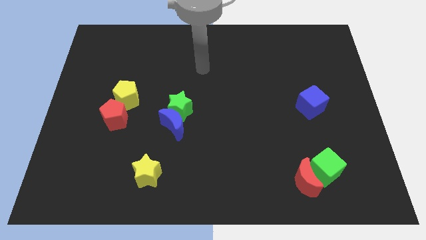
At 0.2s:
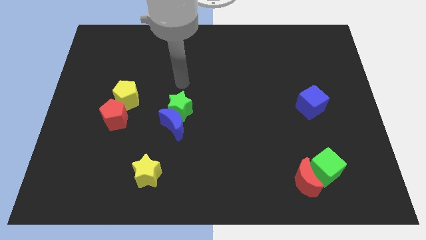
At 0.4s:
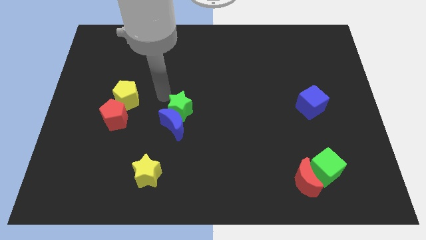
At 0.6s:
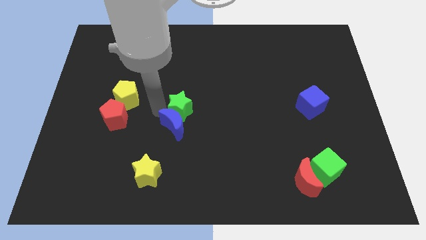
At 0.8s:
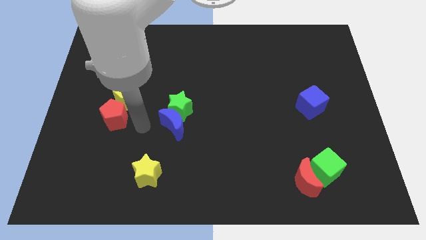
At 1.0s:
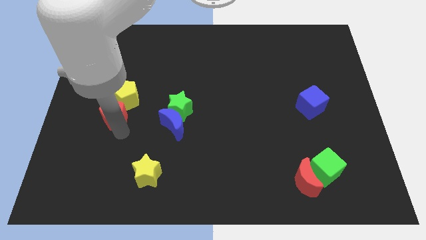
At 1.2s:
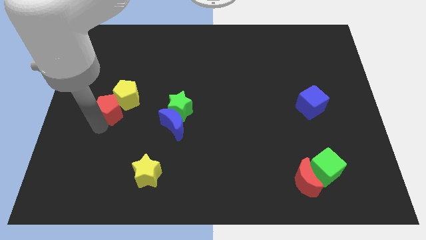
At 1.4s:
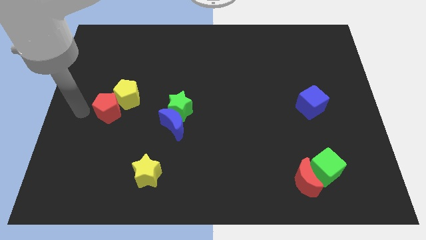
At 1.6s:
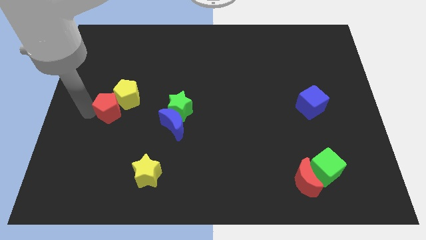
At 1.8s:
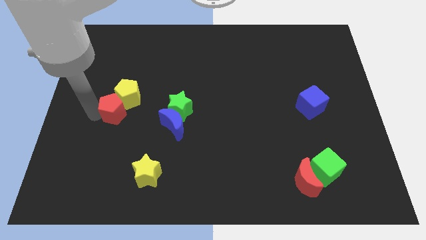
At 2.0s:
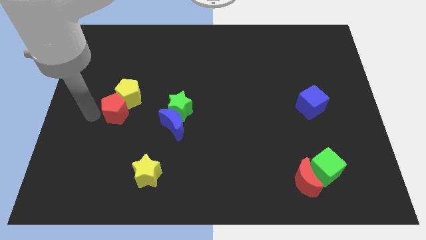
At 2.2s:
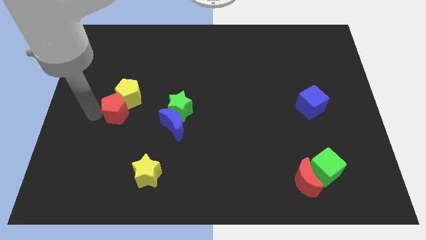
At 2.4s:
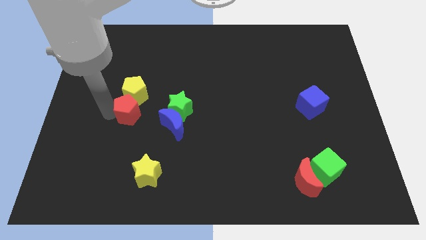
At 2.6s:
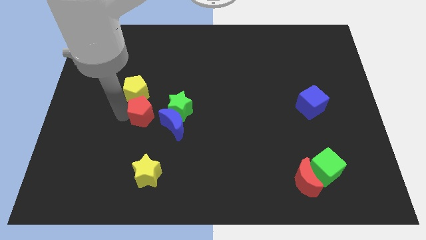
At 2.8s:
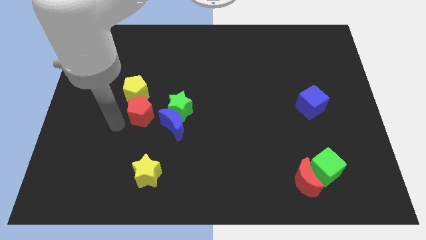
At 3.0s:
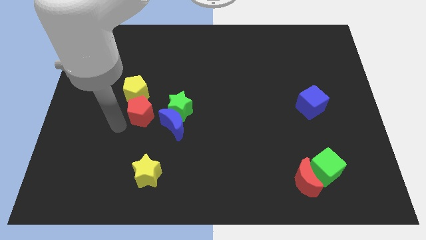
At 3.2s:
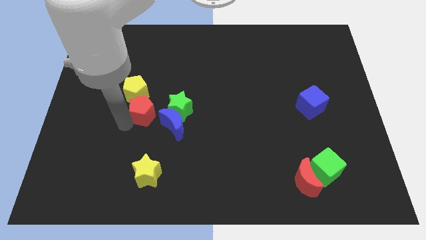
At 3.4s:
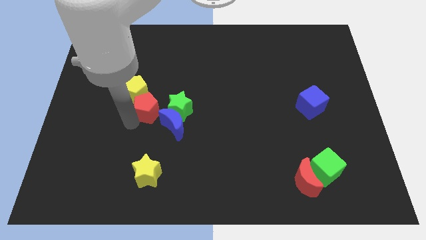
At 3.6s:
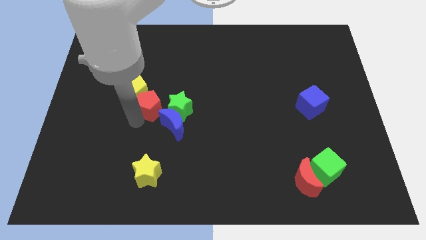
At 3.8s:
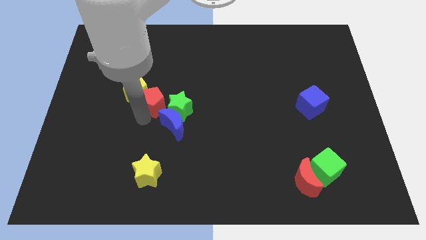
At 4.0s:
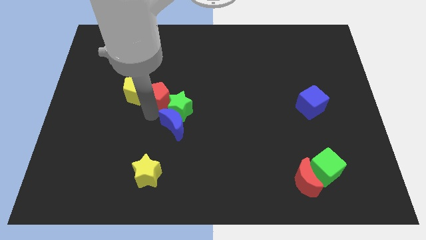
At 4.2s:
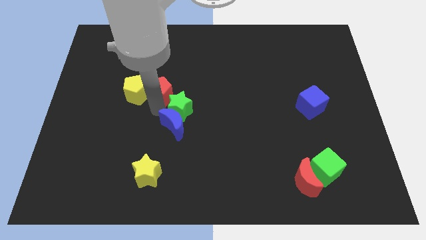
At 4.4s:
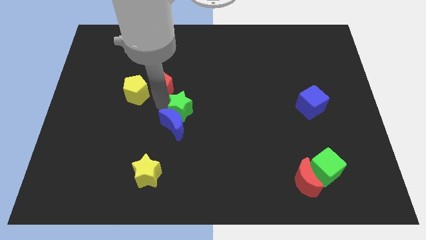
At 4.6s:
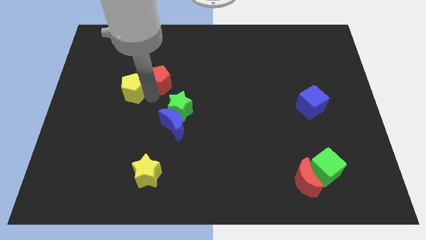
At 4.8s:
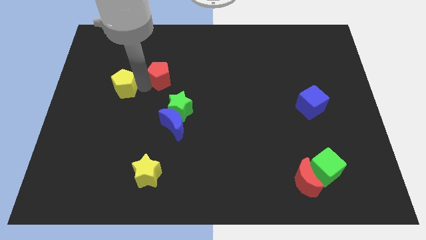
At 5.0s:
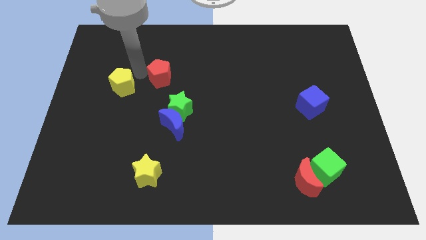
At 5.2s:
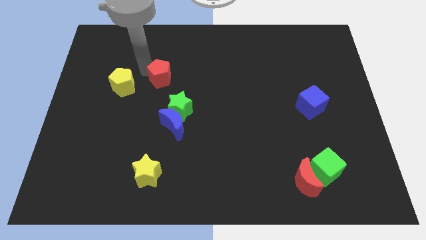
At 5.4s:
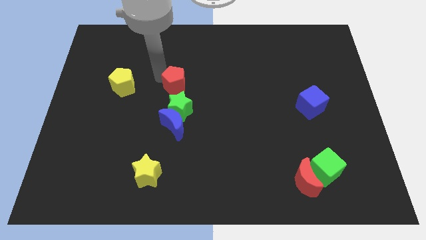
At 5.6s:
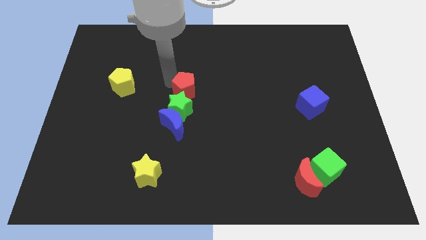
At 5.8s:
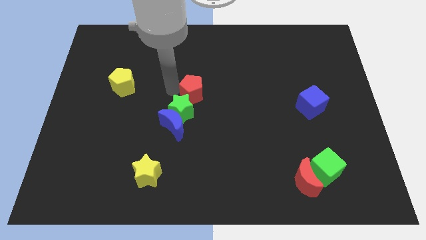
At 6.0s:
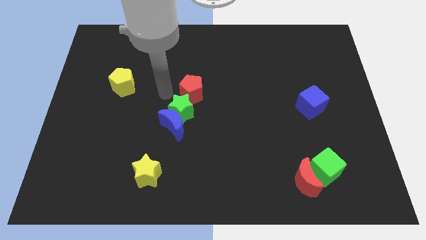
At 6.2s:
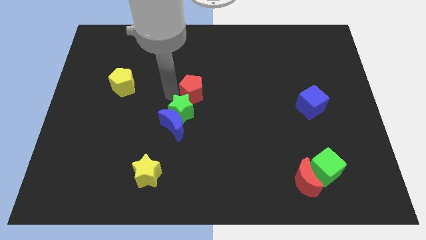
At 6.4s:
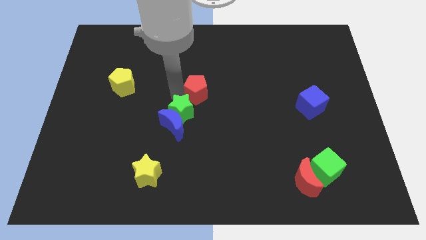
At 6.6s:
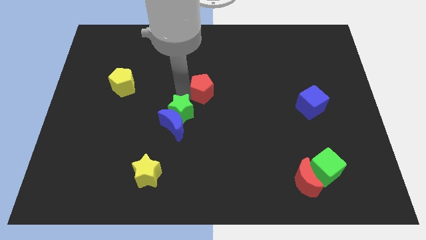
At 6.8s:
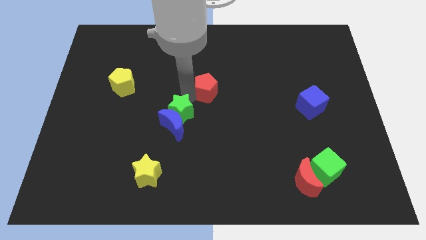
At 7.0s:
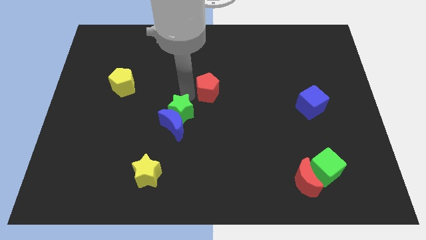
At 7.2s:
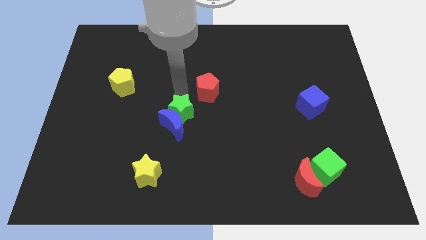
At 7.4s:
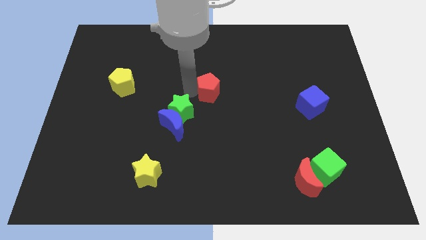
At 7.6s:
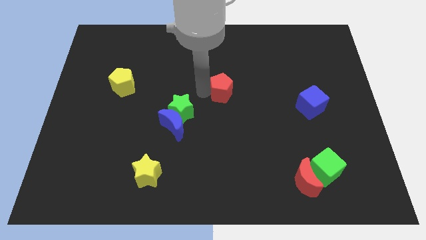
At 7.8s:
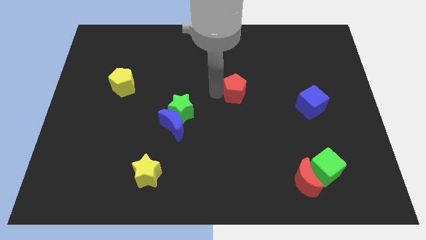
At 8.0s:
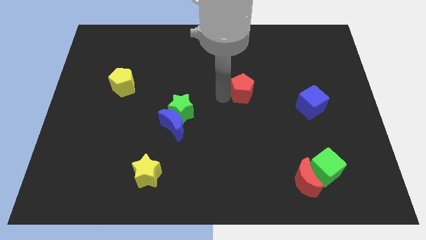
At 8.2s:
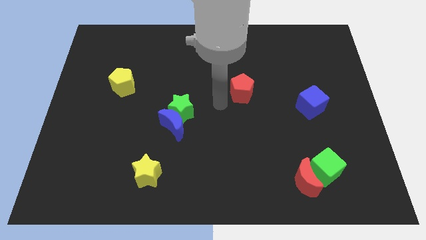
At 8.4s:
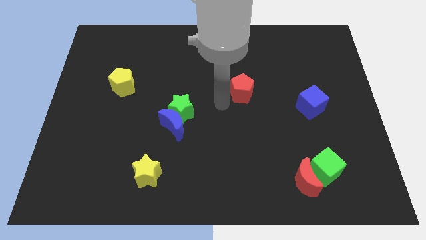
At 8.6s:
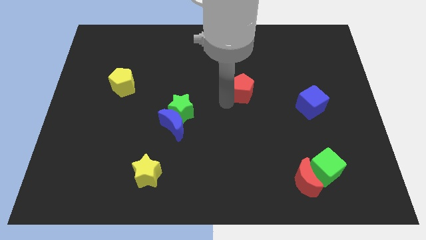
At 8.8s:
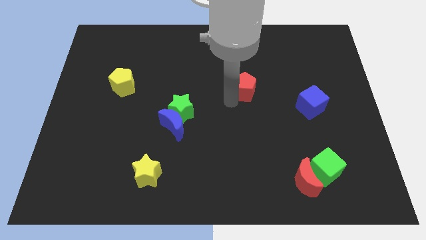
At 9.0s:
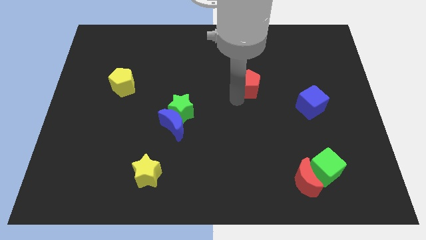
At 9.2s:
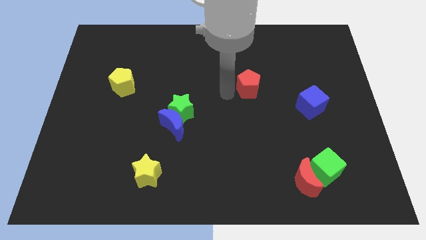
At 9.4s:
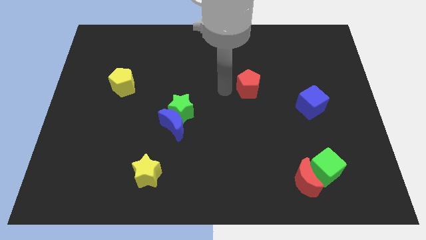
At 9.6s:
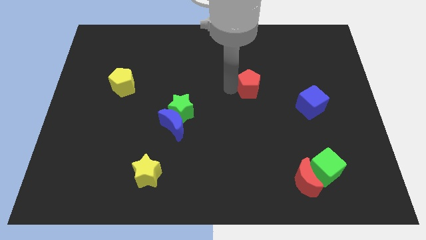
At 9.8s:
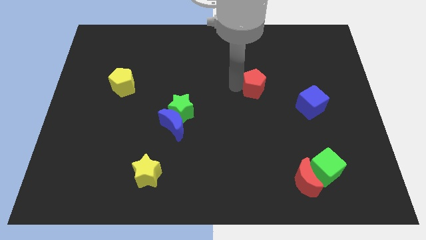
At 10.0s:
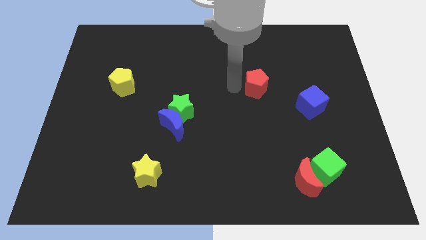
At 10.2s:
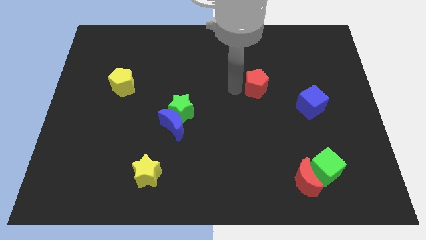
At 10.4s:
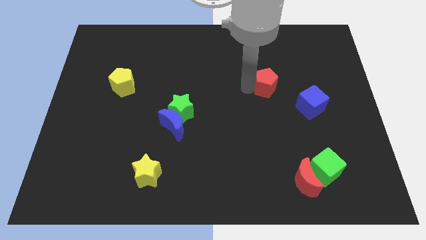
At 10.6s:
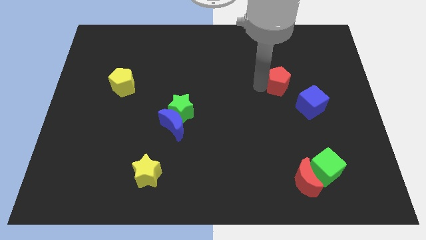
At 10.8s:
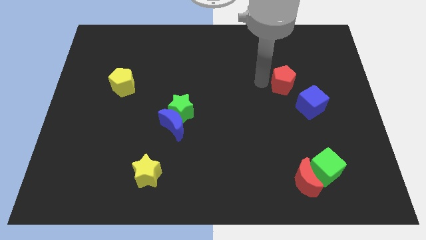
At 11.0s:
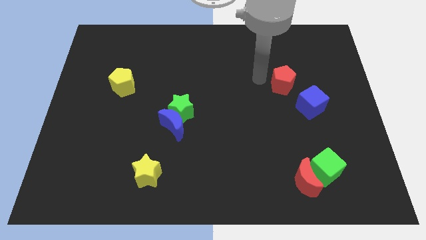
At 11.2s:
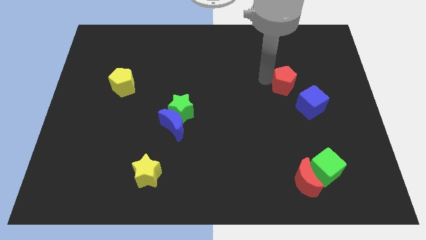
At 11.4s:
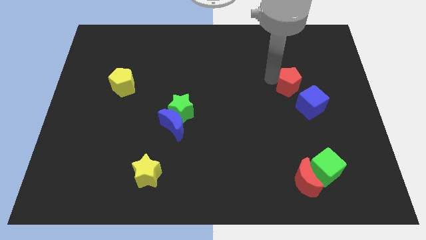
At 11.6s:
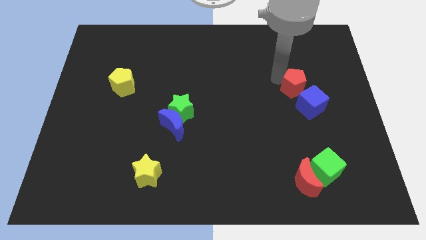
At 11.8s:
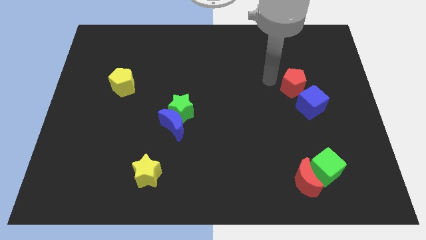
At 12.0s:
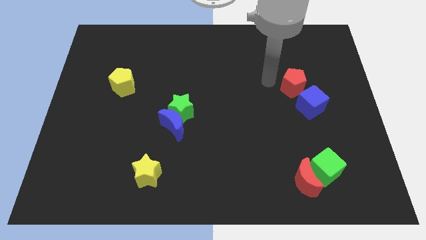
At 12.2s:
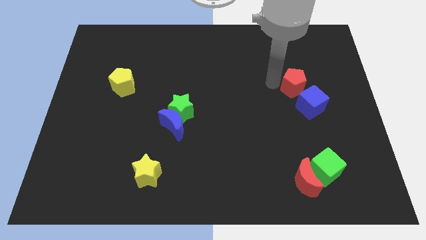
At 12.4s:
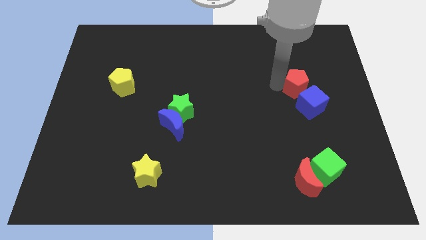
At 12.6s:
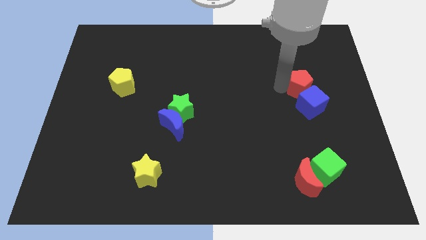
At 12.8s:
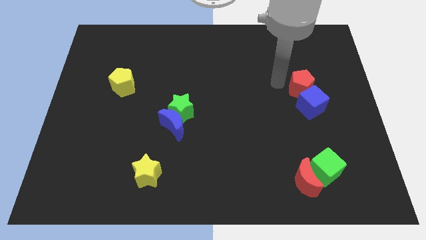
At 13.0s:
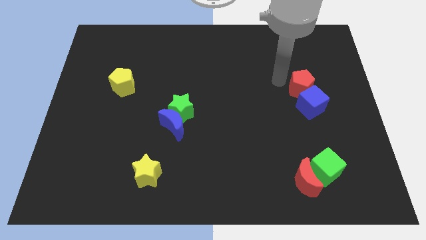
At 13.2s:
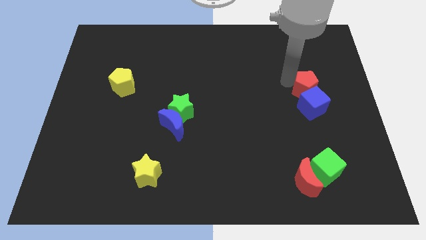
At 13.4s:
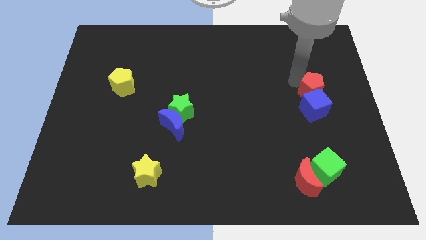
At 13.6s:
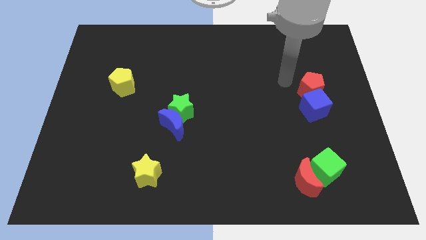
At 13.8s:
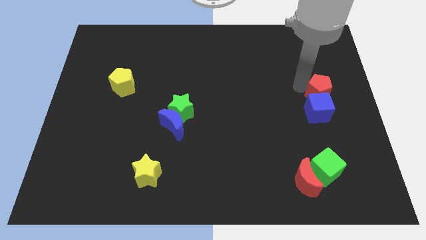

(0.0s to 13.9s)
slide the red pentagon to the right side

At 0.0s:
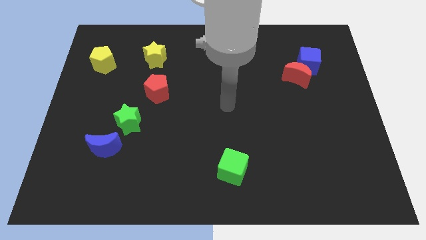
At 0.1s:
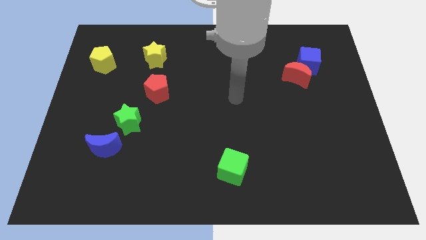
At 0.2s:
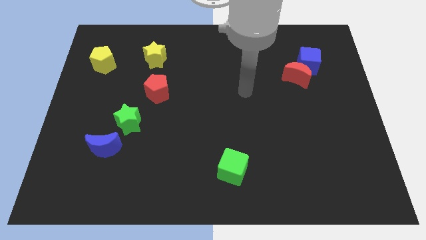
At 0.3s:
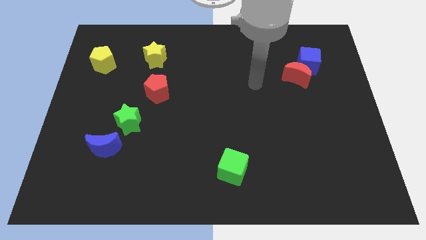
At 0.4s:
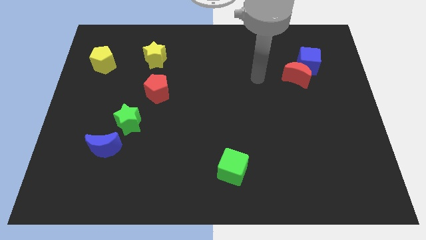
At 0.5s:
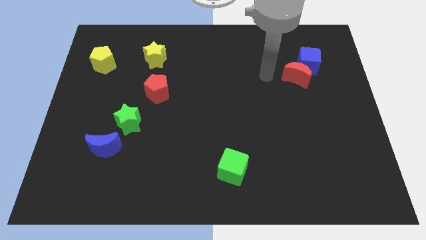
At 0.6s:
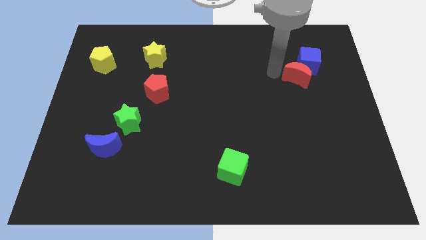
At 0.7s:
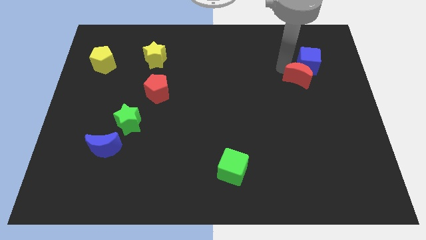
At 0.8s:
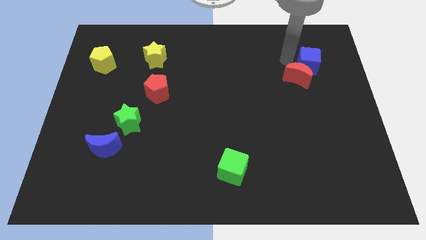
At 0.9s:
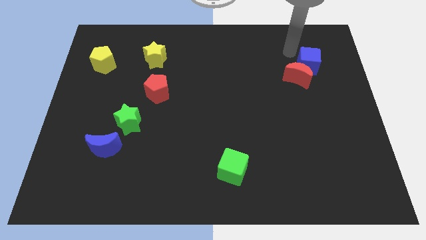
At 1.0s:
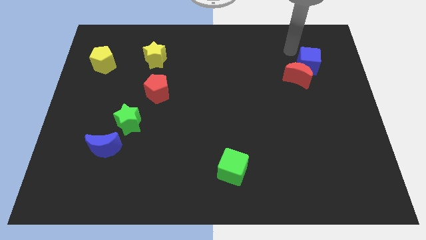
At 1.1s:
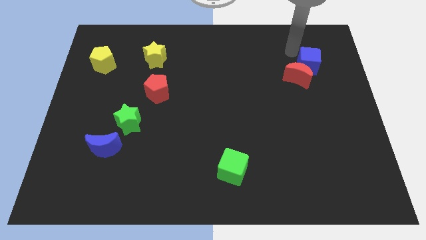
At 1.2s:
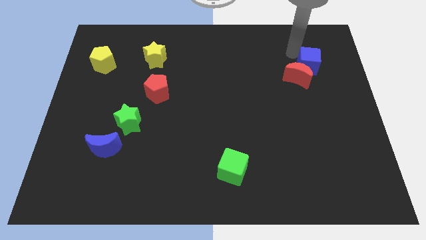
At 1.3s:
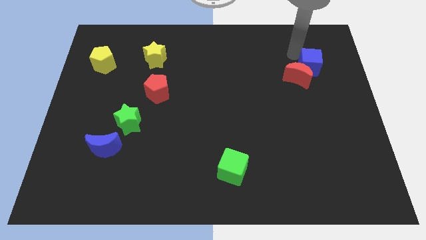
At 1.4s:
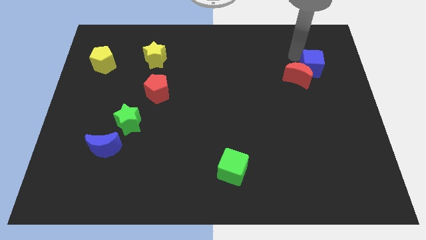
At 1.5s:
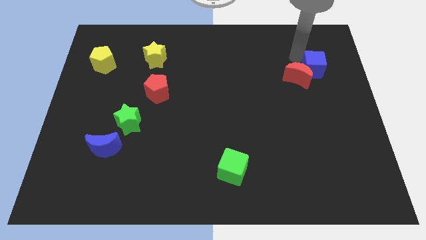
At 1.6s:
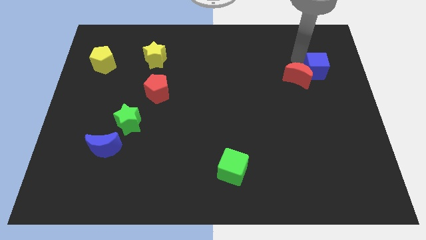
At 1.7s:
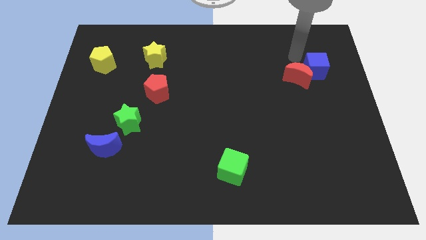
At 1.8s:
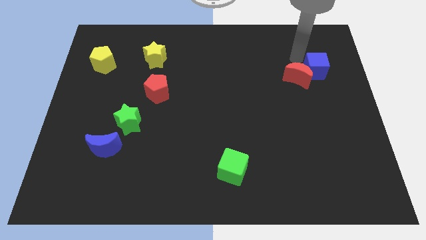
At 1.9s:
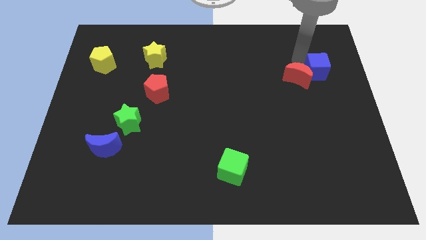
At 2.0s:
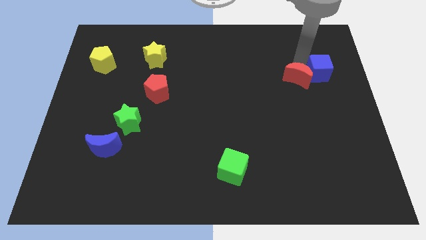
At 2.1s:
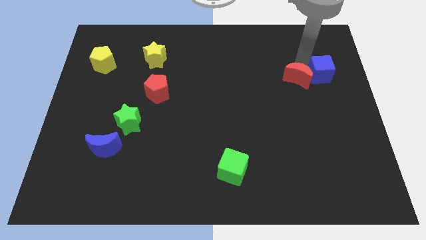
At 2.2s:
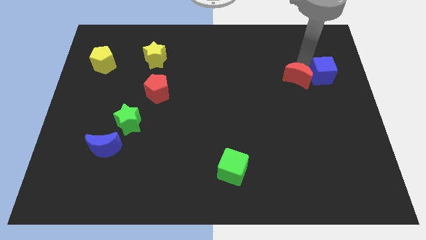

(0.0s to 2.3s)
slide the blue cube to the right side
